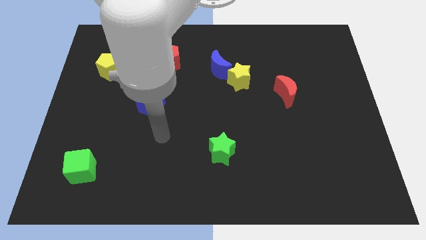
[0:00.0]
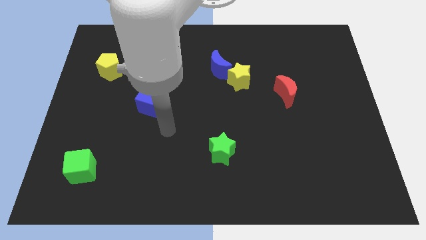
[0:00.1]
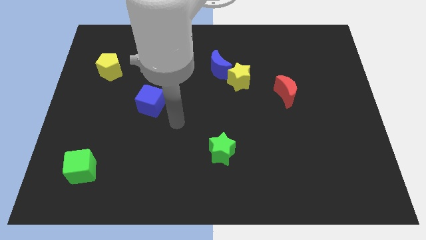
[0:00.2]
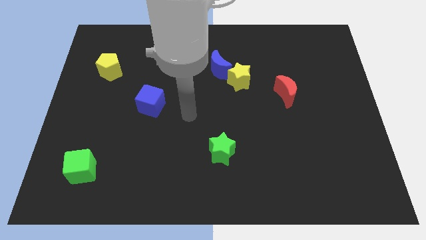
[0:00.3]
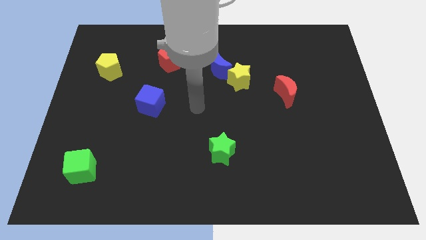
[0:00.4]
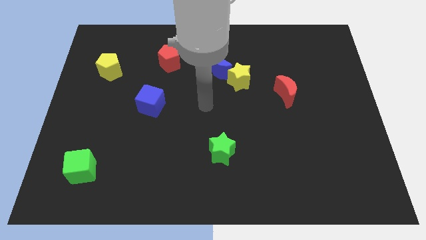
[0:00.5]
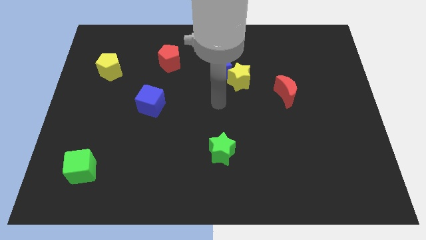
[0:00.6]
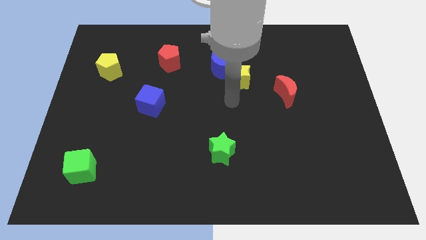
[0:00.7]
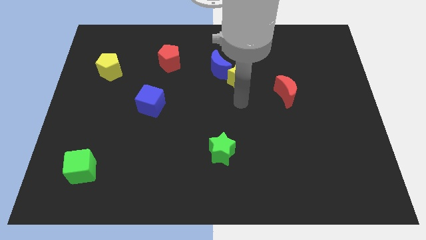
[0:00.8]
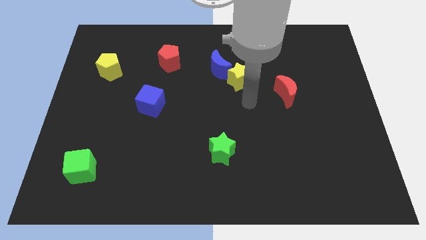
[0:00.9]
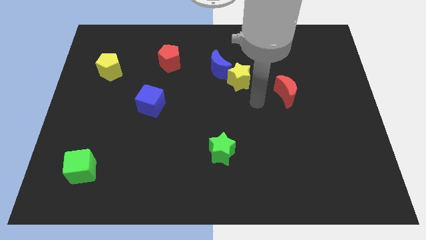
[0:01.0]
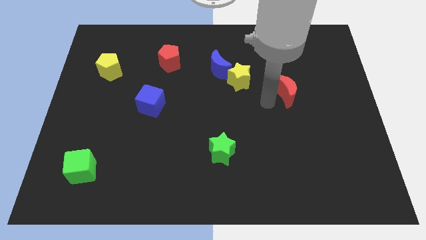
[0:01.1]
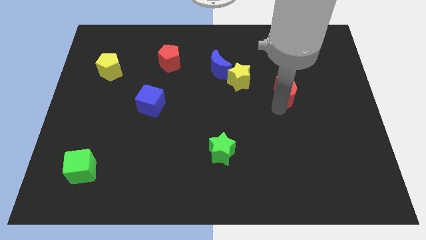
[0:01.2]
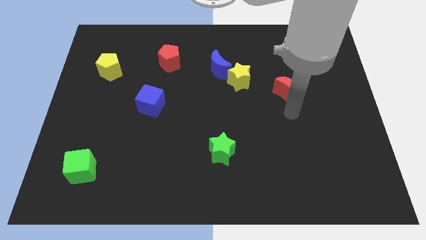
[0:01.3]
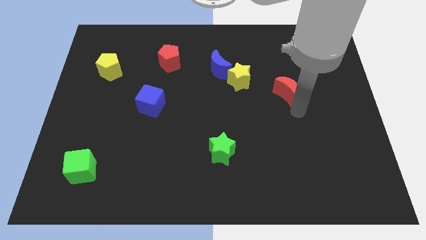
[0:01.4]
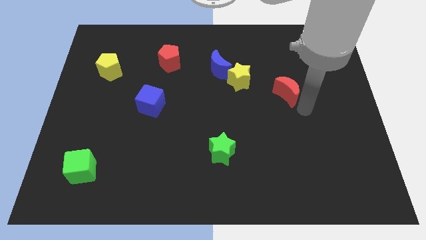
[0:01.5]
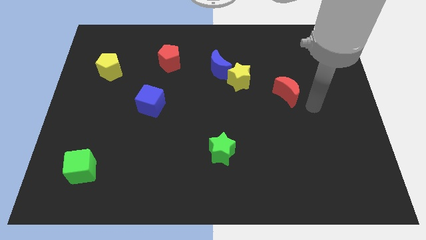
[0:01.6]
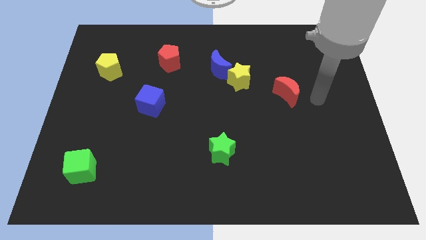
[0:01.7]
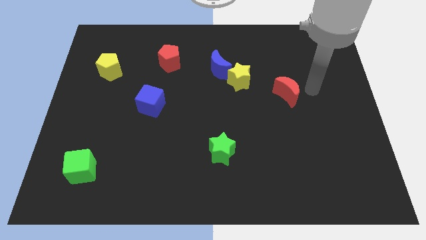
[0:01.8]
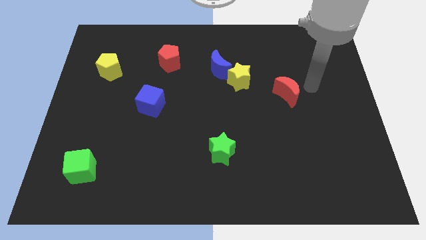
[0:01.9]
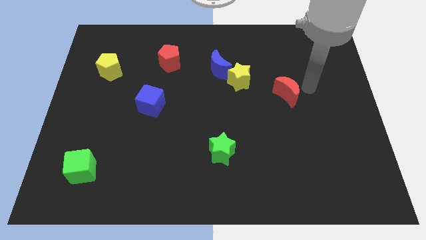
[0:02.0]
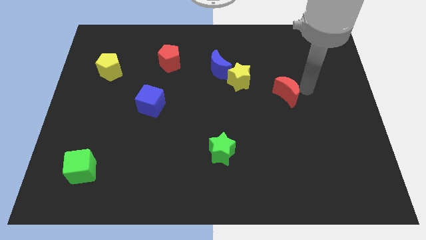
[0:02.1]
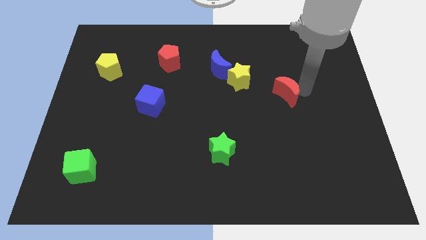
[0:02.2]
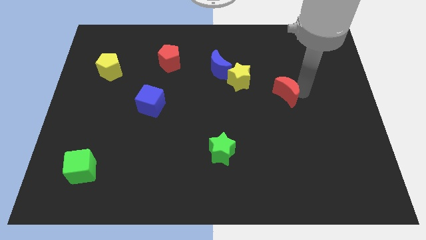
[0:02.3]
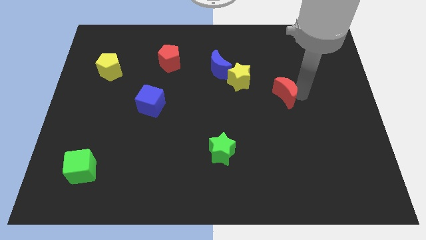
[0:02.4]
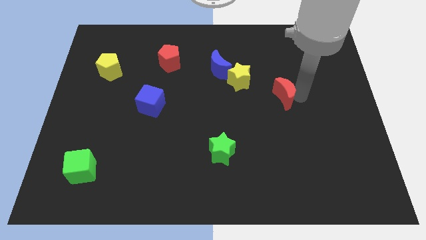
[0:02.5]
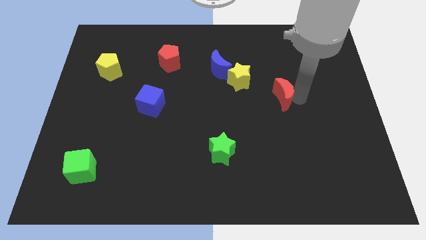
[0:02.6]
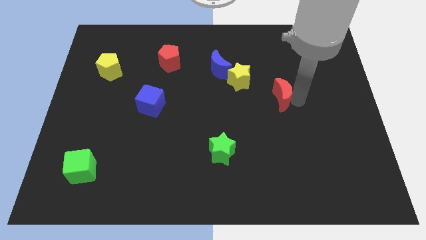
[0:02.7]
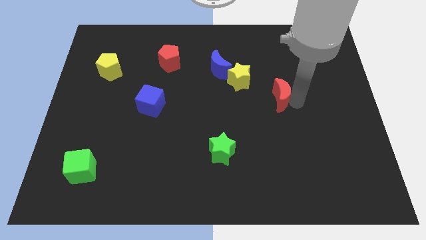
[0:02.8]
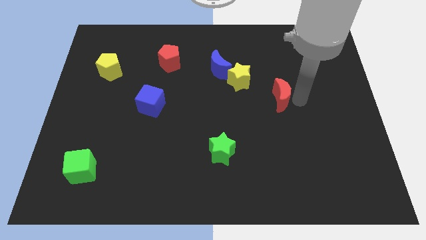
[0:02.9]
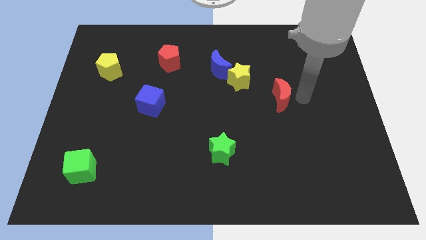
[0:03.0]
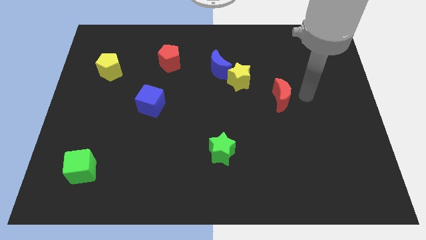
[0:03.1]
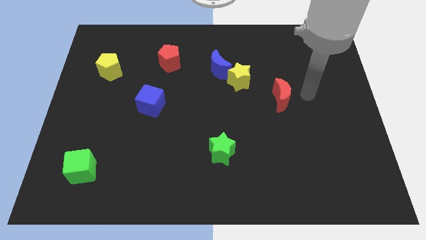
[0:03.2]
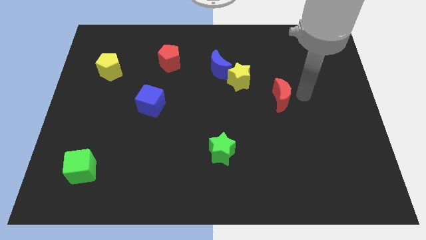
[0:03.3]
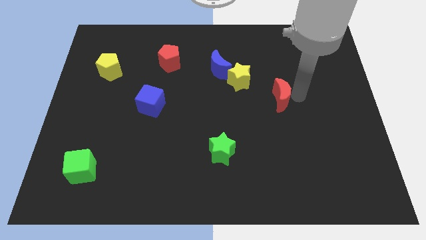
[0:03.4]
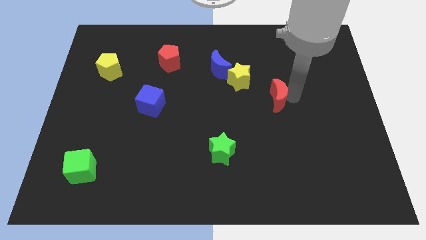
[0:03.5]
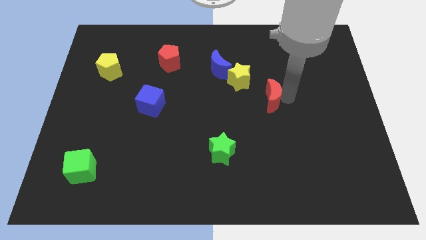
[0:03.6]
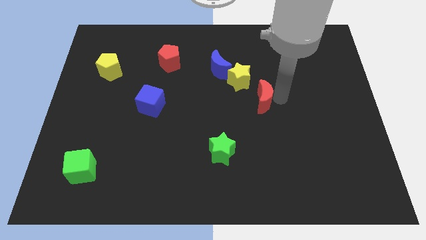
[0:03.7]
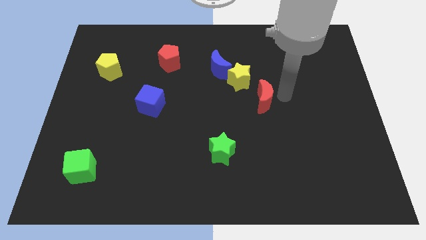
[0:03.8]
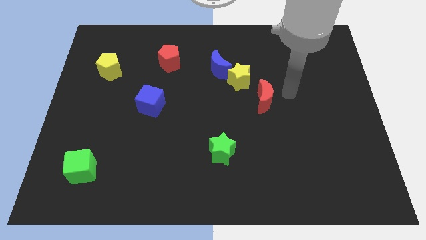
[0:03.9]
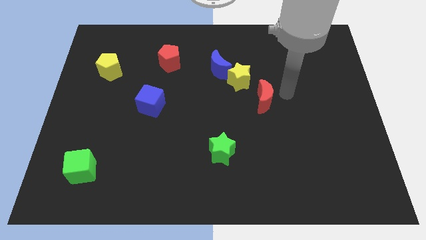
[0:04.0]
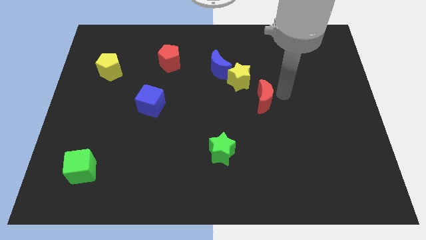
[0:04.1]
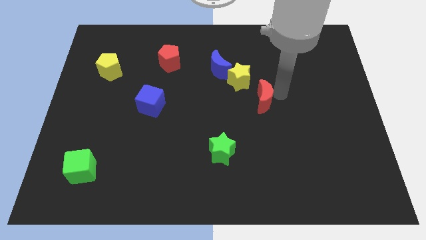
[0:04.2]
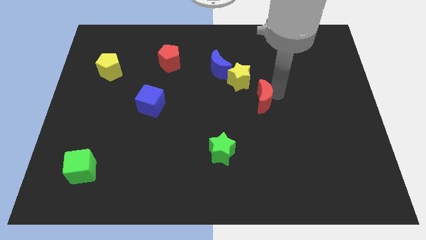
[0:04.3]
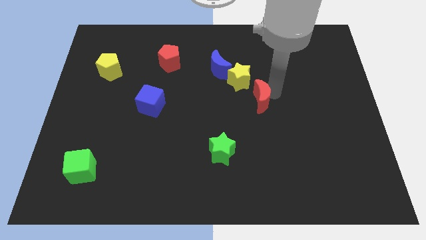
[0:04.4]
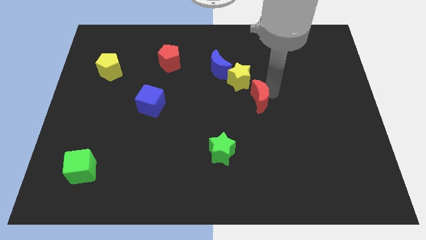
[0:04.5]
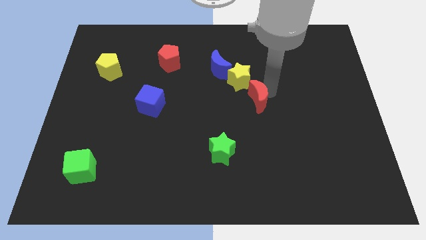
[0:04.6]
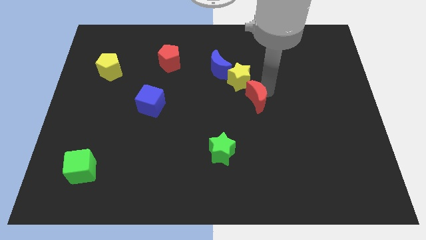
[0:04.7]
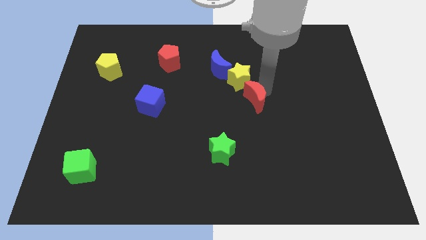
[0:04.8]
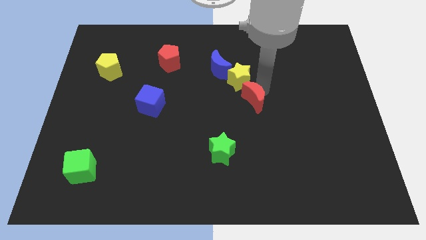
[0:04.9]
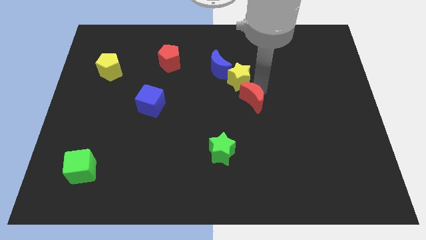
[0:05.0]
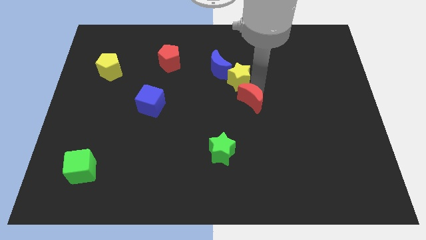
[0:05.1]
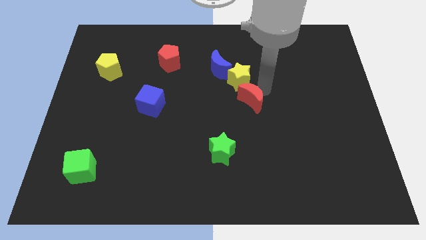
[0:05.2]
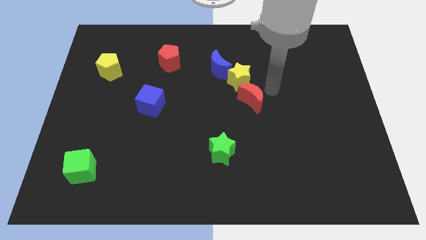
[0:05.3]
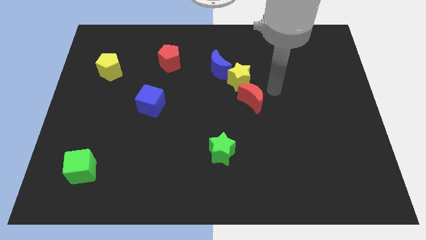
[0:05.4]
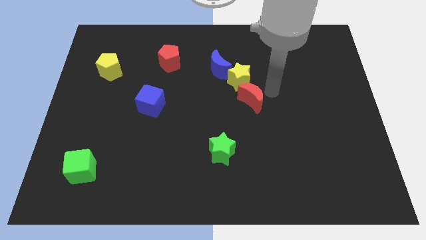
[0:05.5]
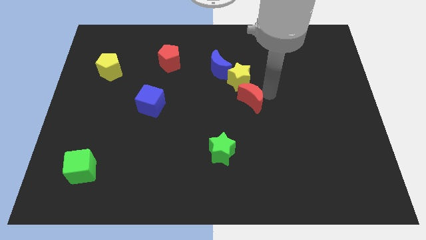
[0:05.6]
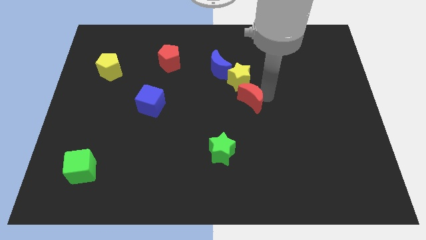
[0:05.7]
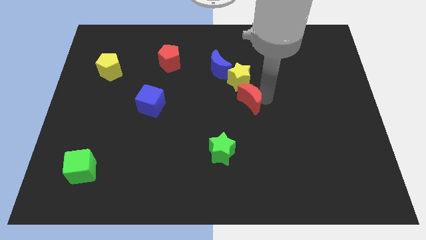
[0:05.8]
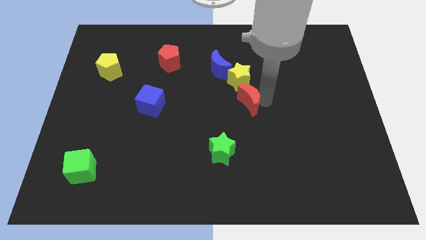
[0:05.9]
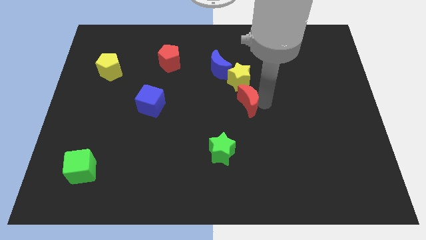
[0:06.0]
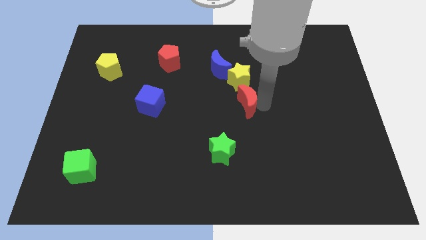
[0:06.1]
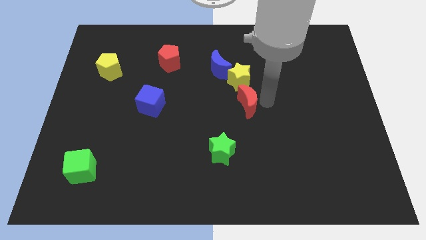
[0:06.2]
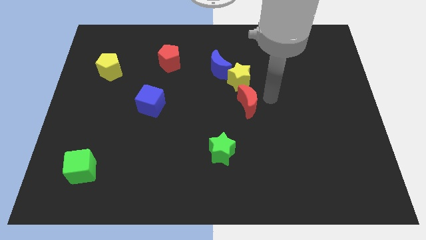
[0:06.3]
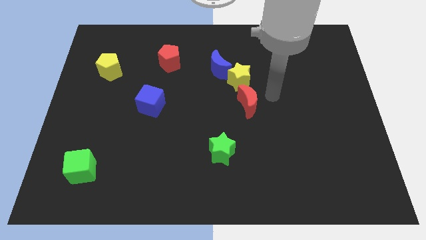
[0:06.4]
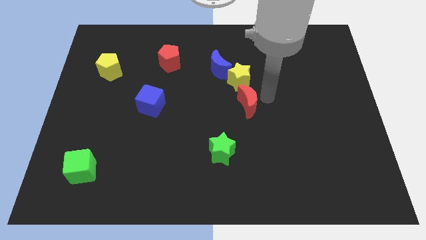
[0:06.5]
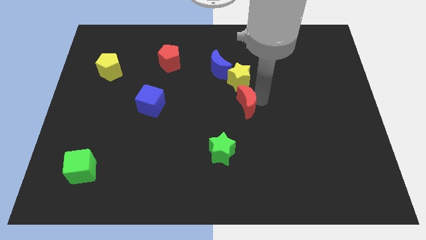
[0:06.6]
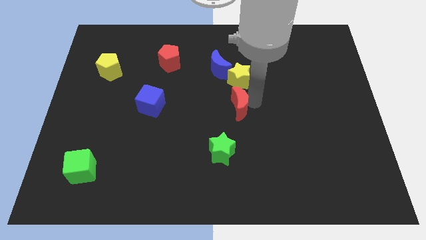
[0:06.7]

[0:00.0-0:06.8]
push the red moon above the green star

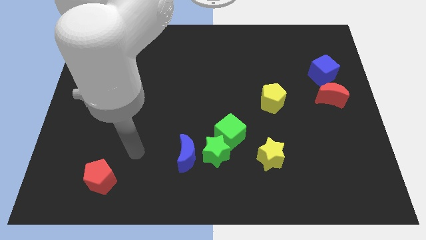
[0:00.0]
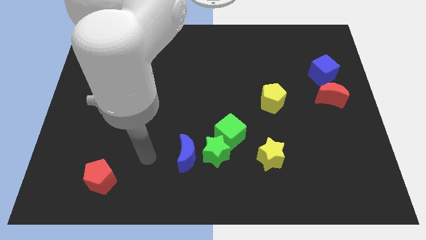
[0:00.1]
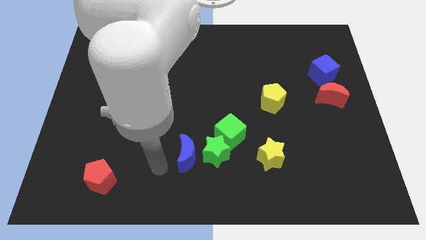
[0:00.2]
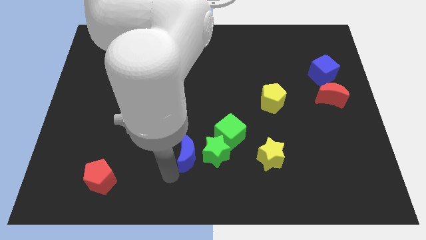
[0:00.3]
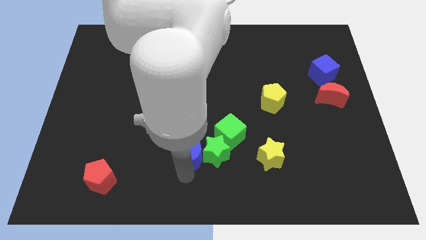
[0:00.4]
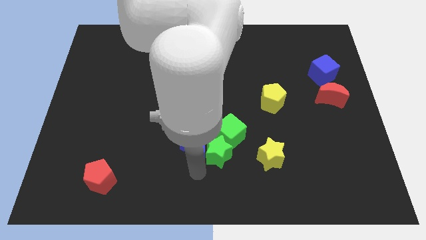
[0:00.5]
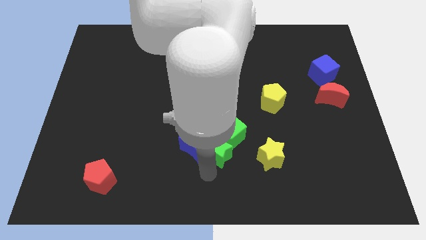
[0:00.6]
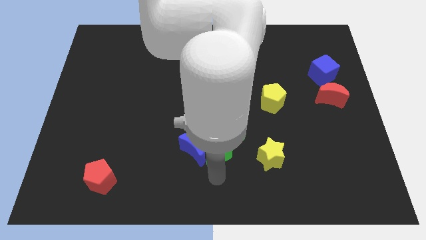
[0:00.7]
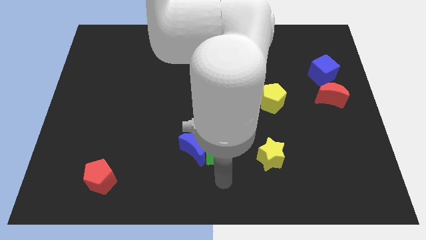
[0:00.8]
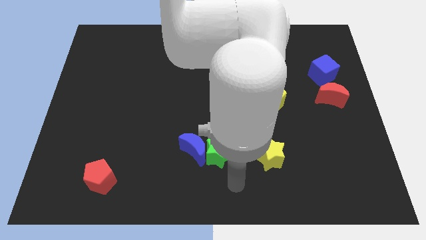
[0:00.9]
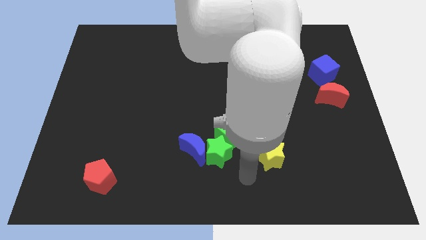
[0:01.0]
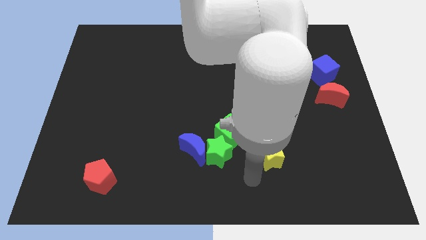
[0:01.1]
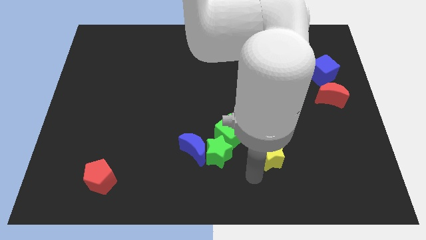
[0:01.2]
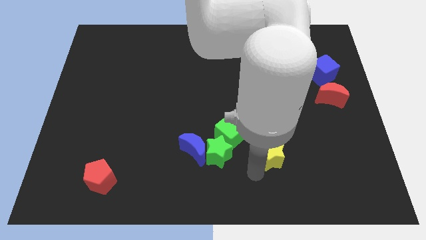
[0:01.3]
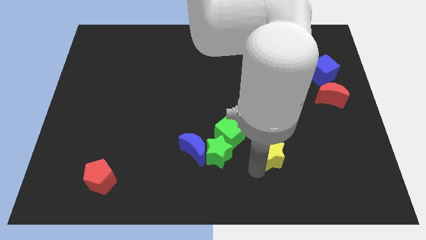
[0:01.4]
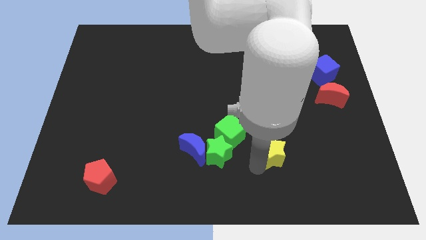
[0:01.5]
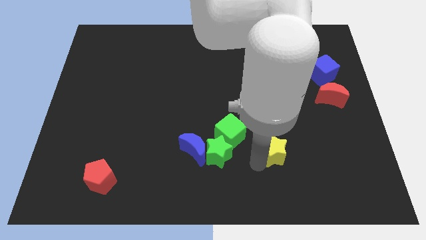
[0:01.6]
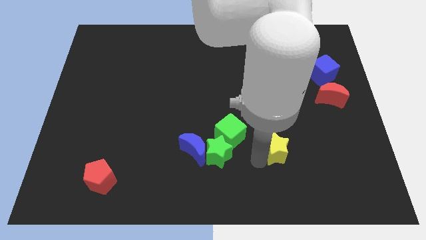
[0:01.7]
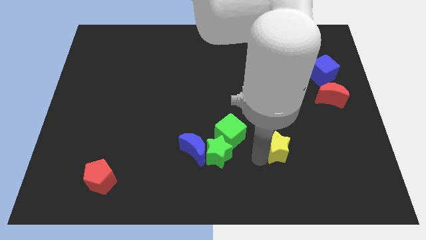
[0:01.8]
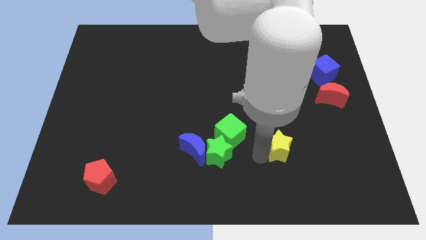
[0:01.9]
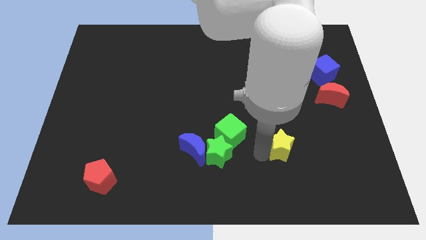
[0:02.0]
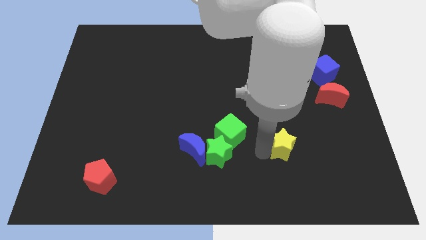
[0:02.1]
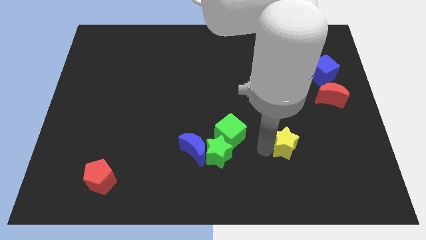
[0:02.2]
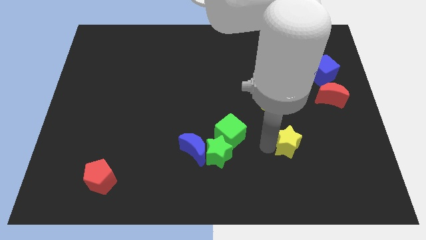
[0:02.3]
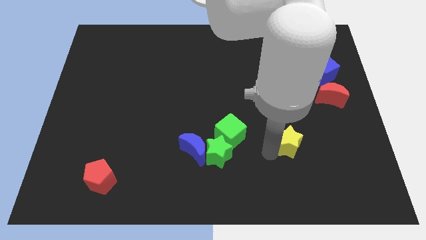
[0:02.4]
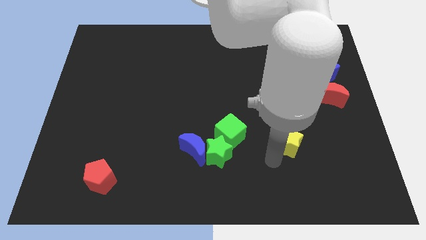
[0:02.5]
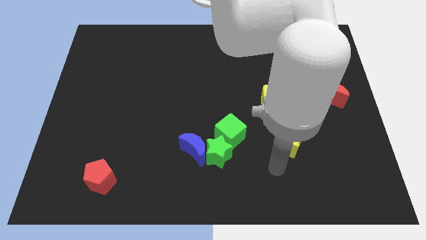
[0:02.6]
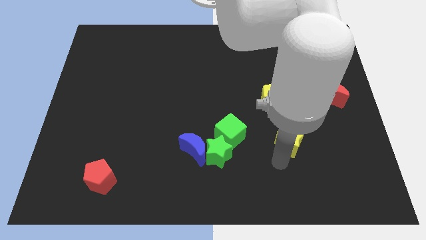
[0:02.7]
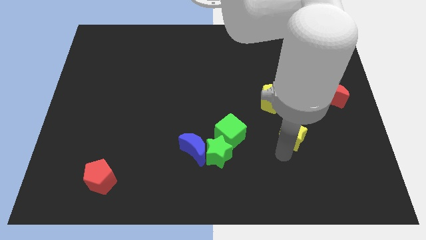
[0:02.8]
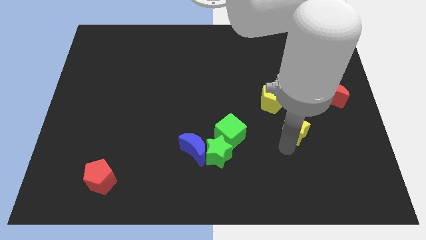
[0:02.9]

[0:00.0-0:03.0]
push the yellow star to the bottom right side of the yellow pentagon
